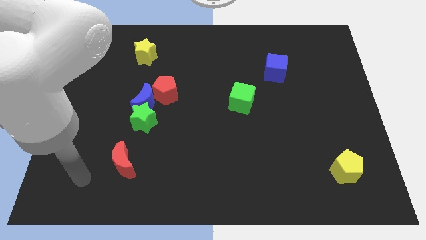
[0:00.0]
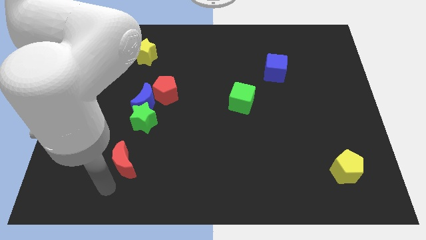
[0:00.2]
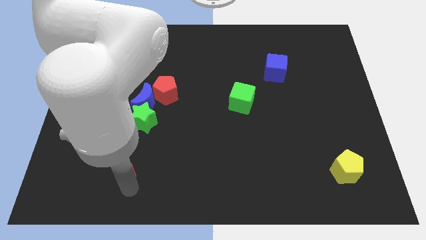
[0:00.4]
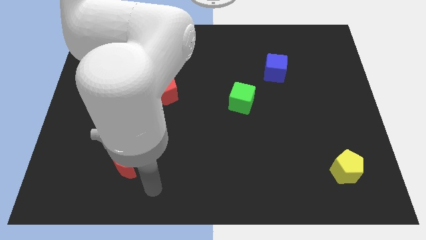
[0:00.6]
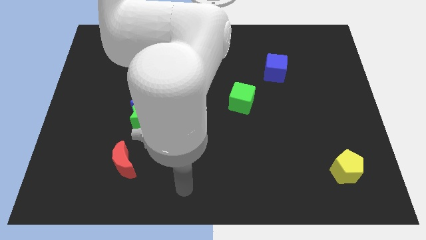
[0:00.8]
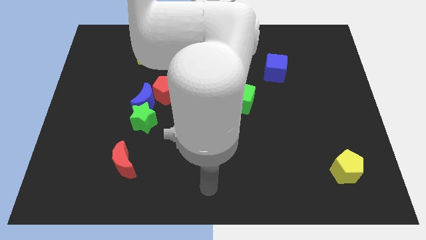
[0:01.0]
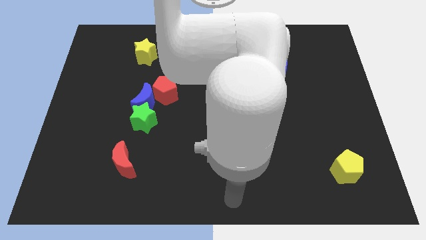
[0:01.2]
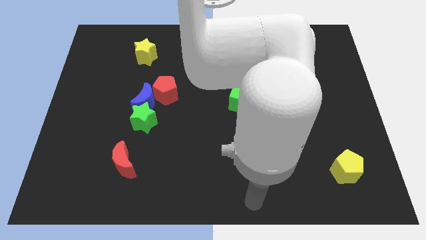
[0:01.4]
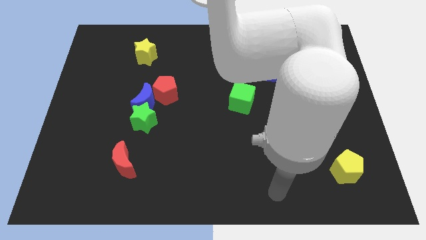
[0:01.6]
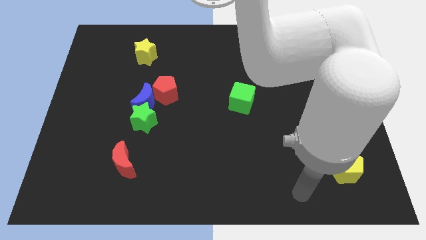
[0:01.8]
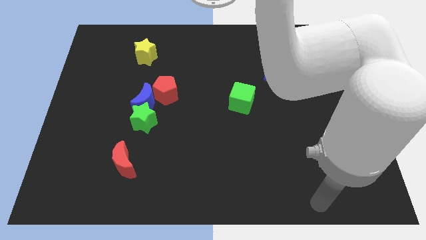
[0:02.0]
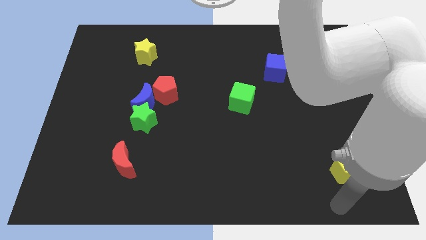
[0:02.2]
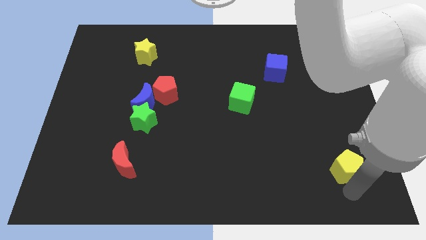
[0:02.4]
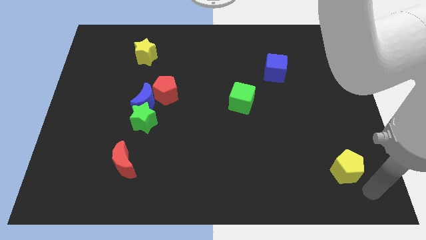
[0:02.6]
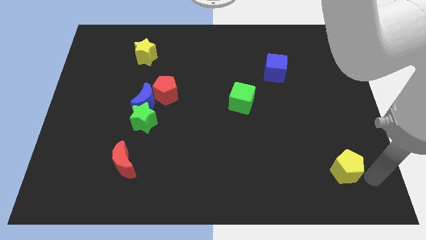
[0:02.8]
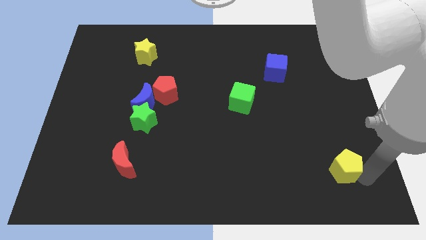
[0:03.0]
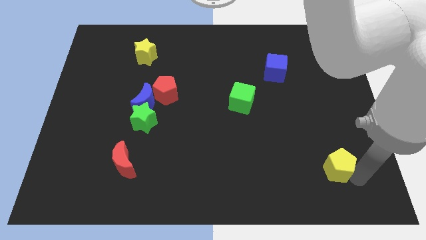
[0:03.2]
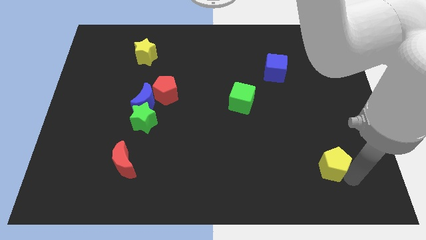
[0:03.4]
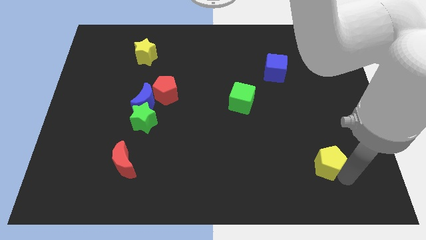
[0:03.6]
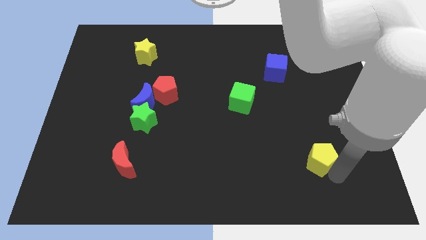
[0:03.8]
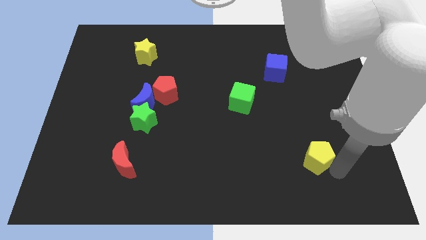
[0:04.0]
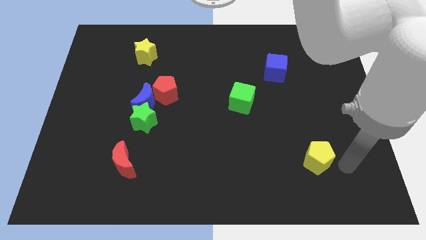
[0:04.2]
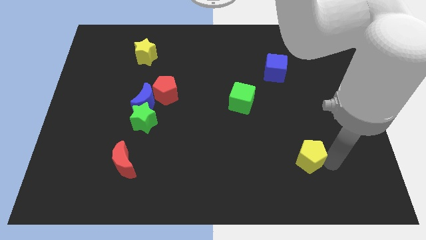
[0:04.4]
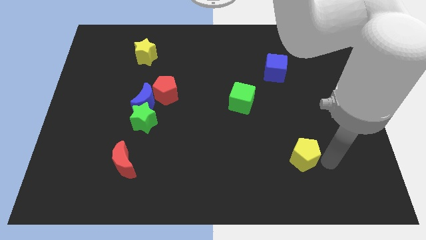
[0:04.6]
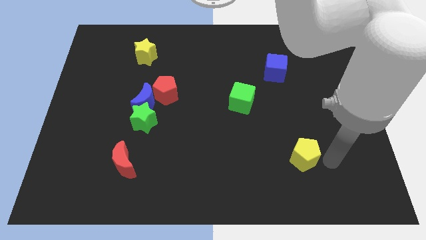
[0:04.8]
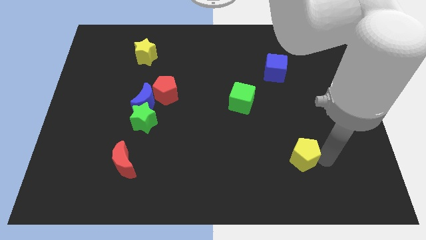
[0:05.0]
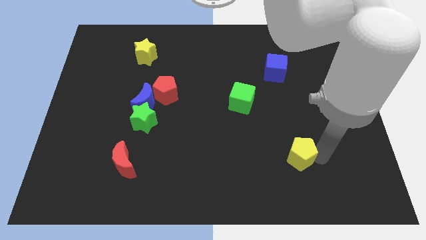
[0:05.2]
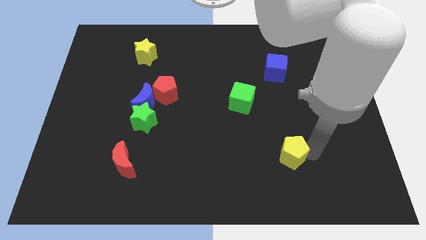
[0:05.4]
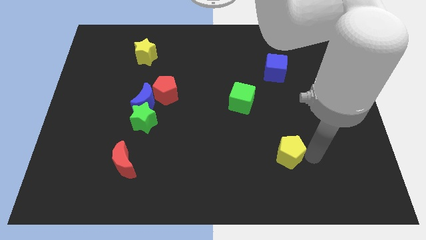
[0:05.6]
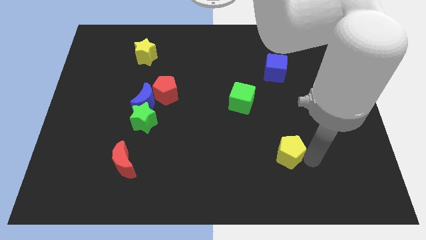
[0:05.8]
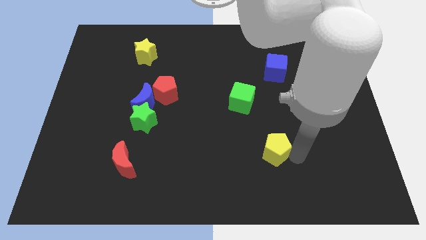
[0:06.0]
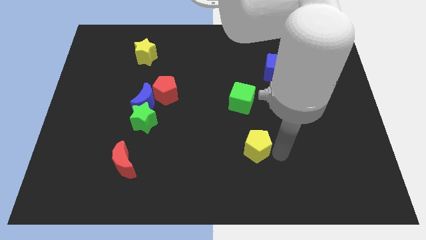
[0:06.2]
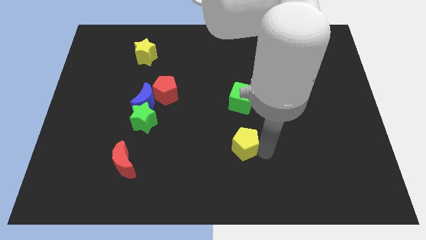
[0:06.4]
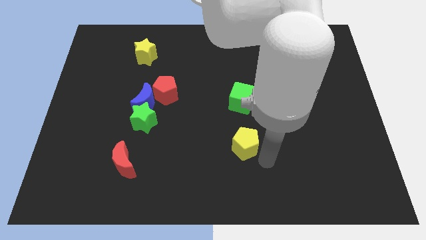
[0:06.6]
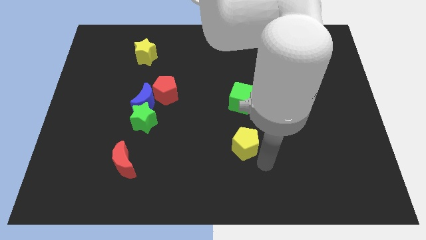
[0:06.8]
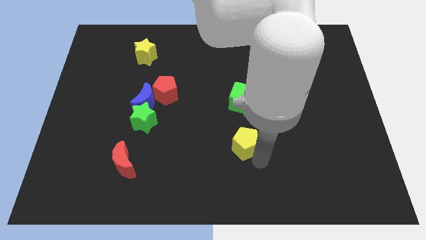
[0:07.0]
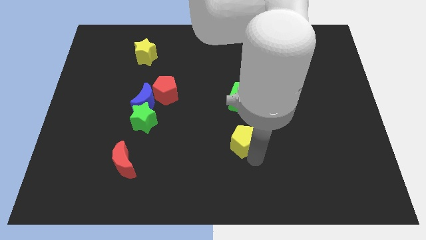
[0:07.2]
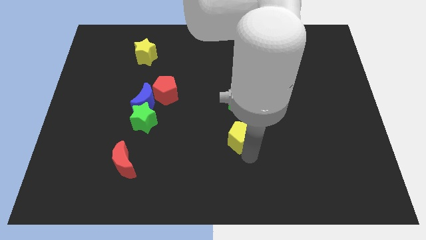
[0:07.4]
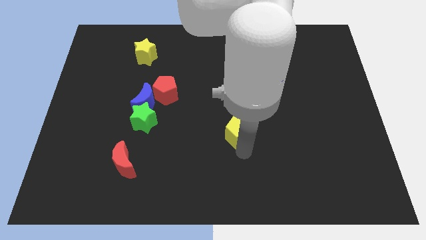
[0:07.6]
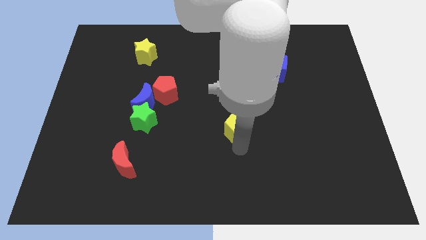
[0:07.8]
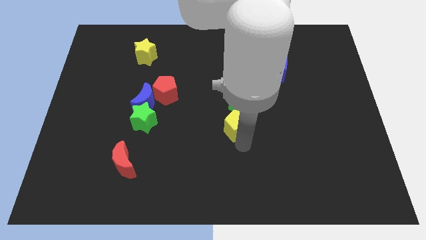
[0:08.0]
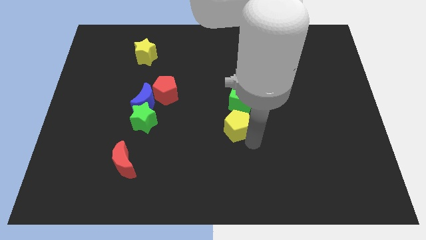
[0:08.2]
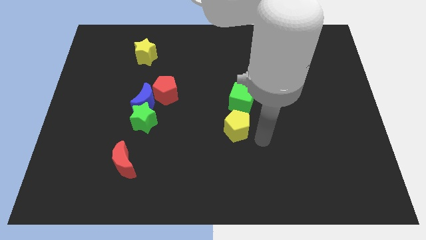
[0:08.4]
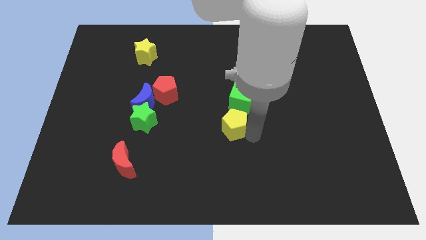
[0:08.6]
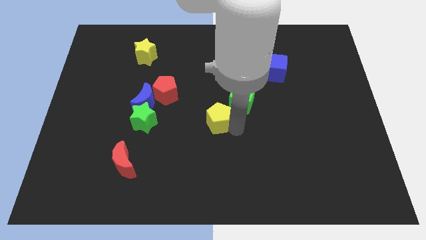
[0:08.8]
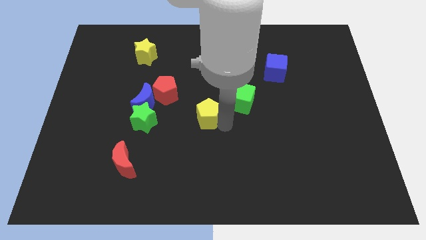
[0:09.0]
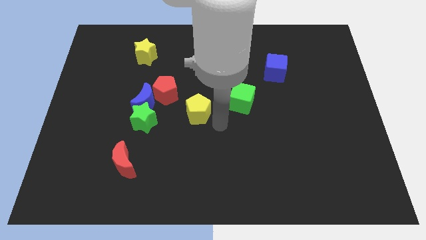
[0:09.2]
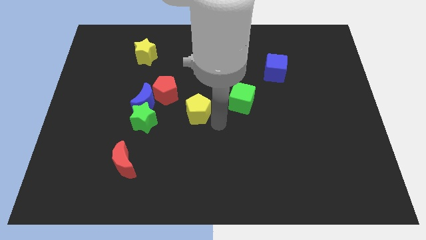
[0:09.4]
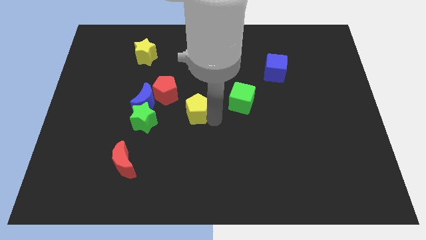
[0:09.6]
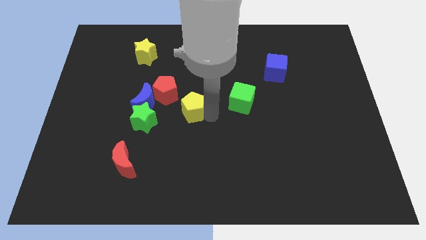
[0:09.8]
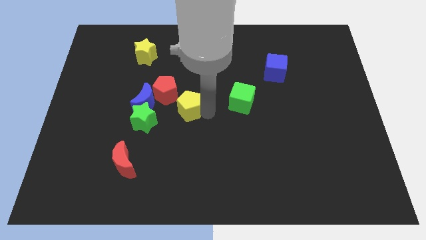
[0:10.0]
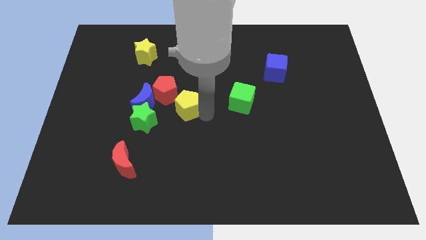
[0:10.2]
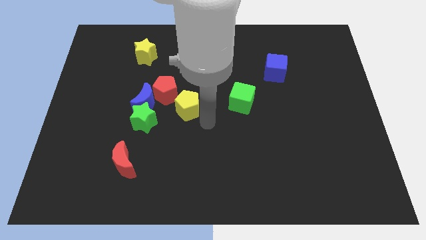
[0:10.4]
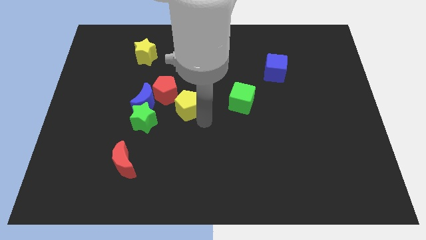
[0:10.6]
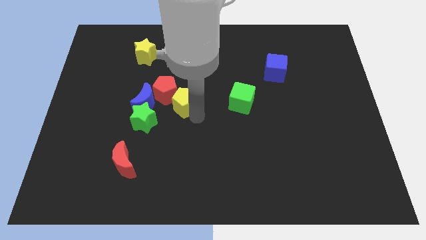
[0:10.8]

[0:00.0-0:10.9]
move the yellow pentagon towards the red pentagon

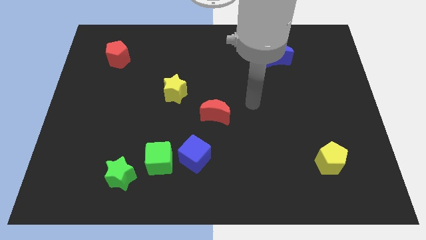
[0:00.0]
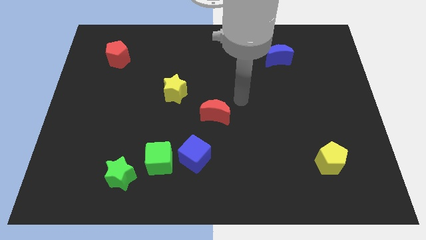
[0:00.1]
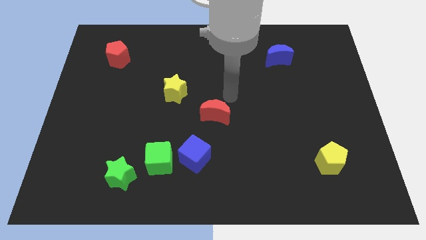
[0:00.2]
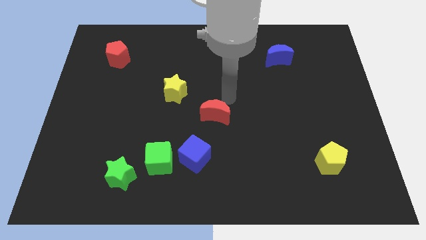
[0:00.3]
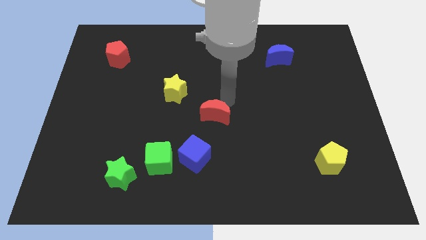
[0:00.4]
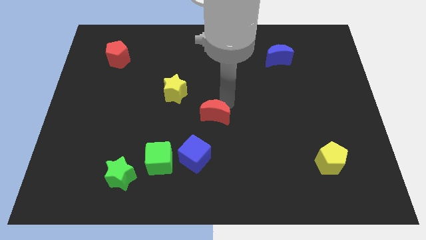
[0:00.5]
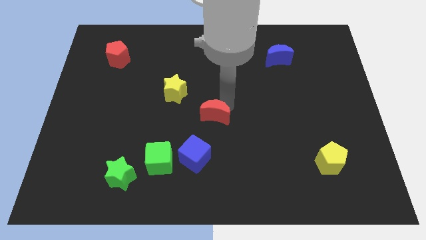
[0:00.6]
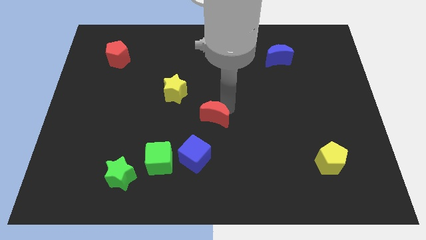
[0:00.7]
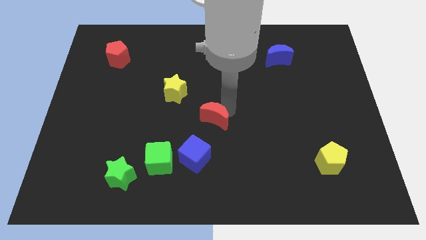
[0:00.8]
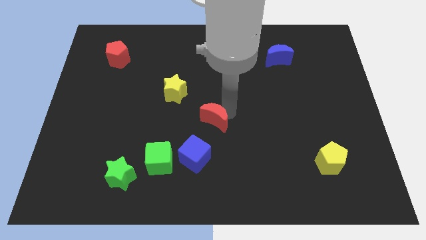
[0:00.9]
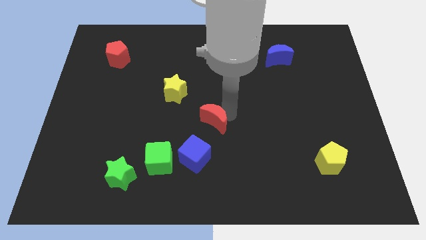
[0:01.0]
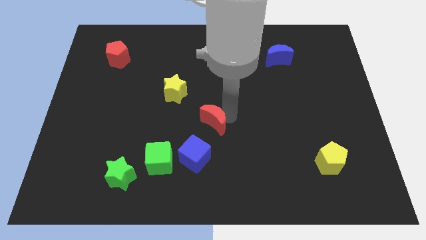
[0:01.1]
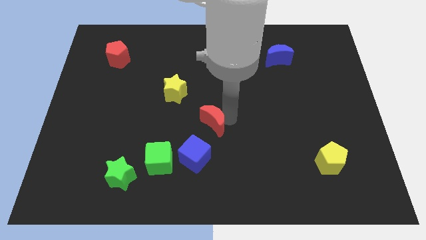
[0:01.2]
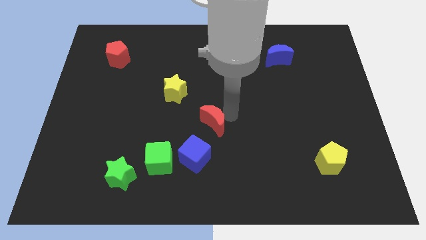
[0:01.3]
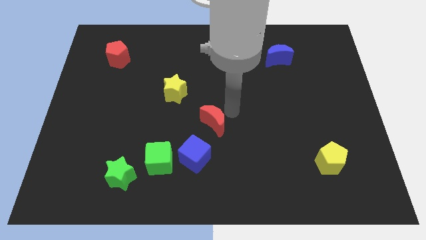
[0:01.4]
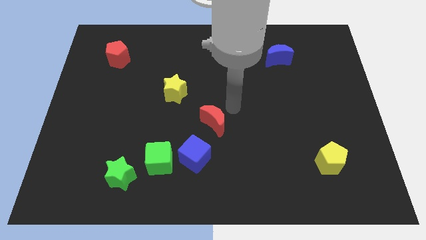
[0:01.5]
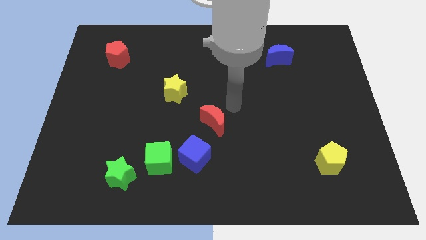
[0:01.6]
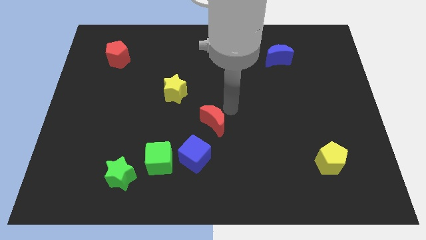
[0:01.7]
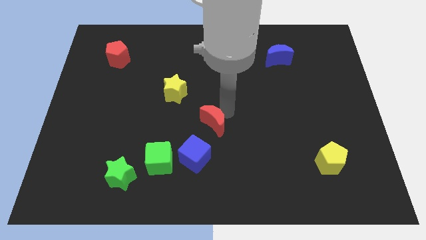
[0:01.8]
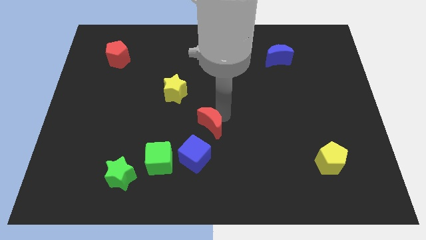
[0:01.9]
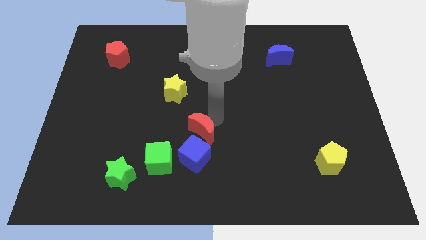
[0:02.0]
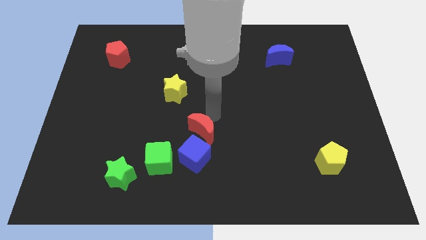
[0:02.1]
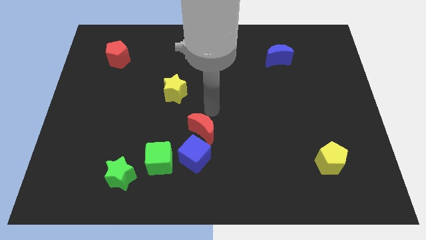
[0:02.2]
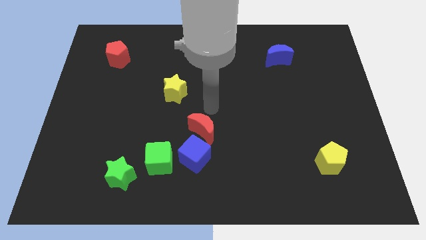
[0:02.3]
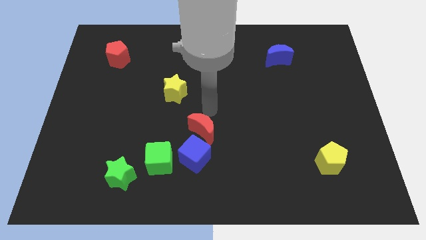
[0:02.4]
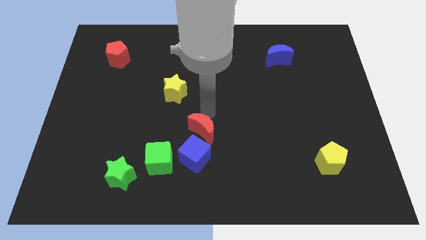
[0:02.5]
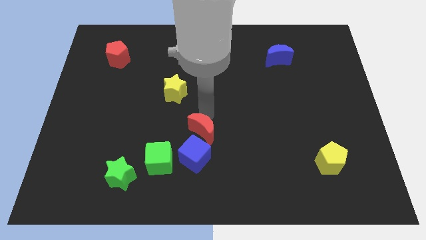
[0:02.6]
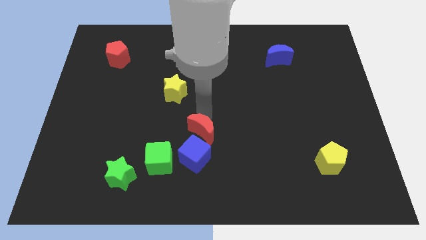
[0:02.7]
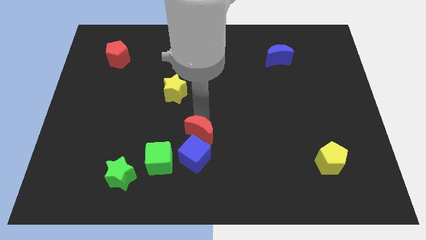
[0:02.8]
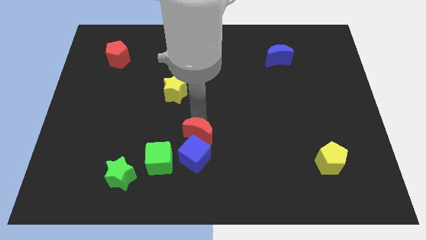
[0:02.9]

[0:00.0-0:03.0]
slide the red moon next to the blue cube
